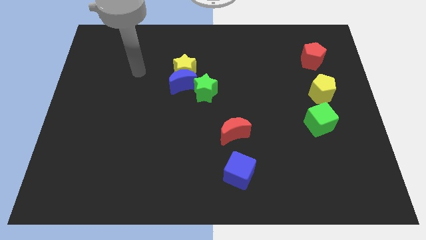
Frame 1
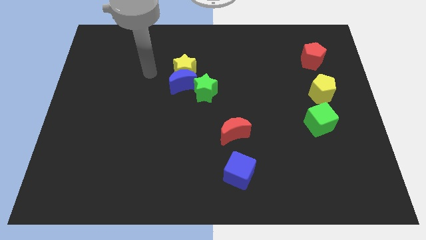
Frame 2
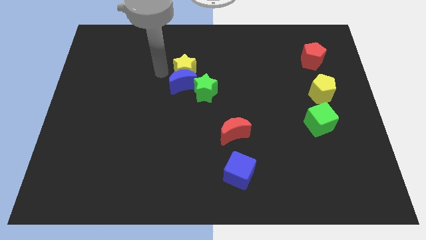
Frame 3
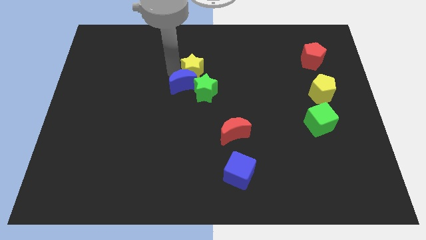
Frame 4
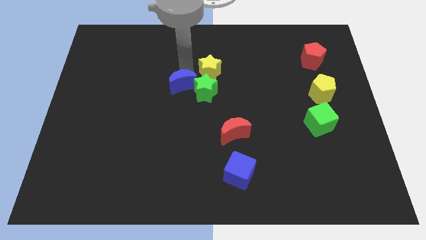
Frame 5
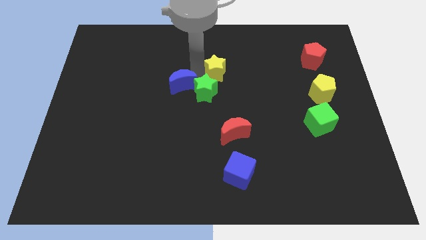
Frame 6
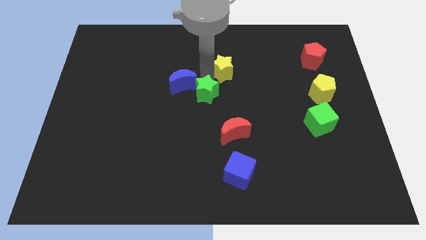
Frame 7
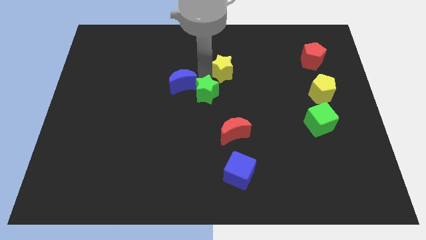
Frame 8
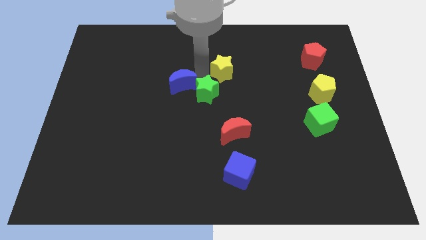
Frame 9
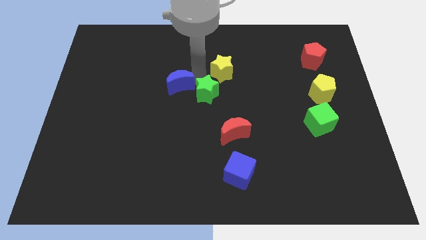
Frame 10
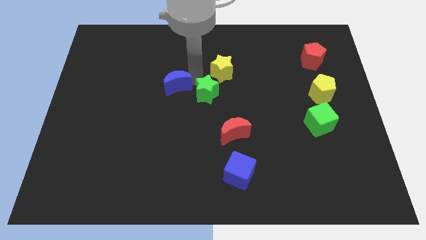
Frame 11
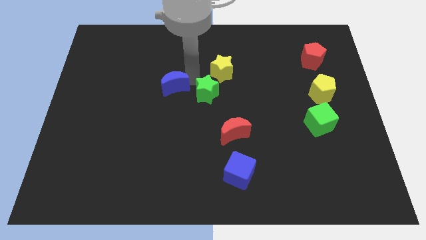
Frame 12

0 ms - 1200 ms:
move the blue moon away from the yellow star and green star

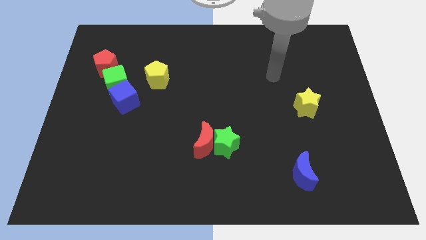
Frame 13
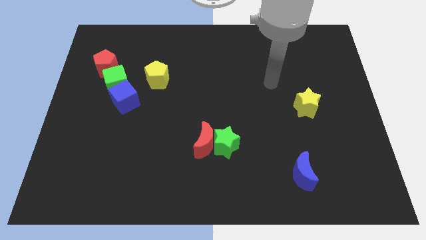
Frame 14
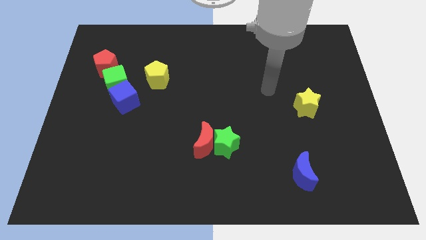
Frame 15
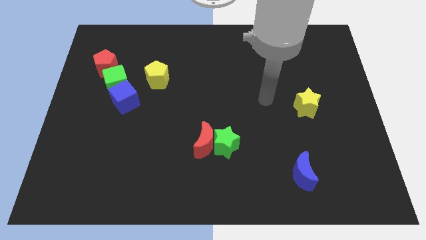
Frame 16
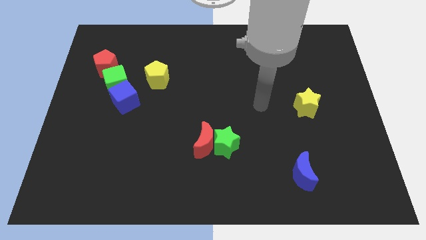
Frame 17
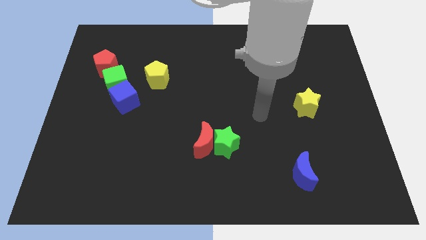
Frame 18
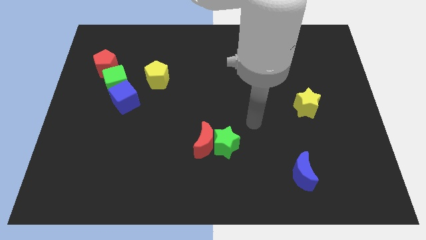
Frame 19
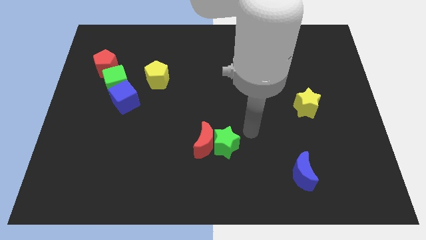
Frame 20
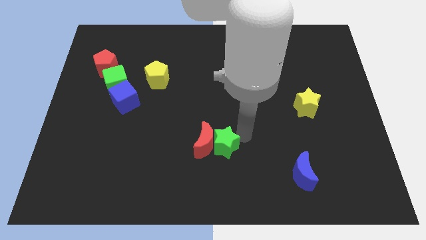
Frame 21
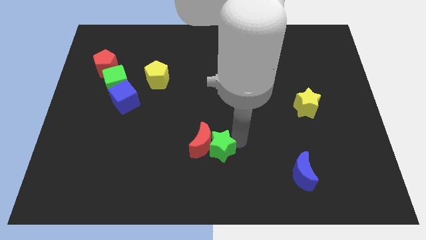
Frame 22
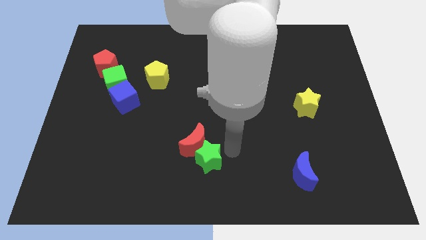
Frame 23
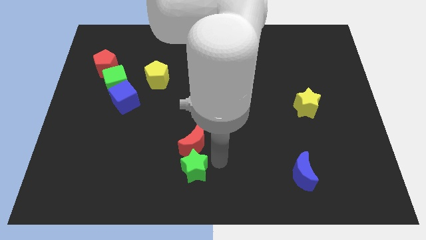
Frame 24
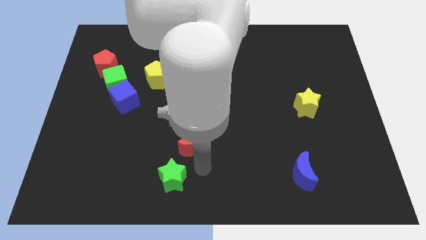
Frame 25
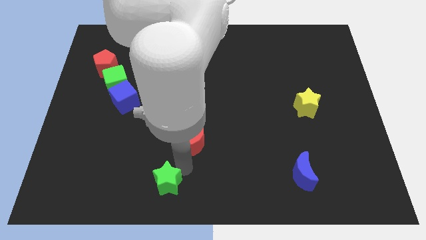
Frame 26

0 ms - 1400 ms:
move the red moon away from the green star

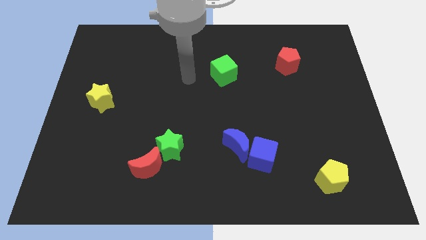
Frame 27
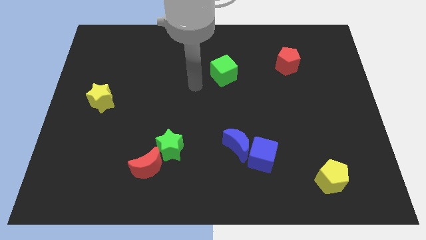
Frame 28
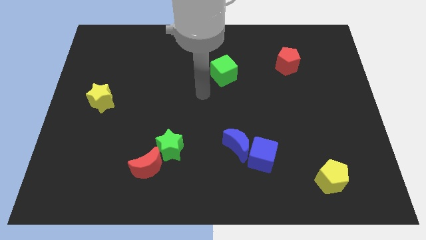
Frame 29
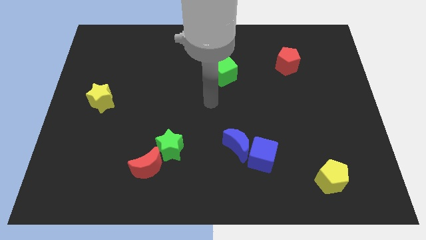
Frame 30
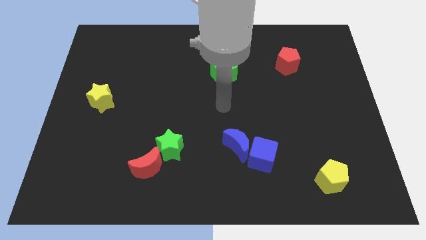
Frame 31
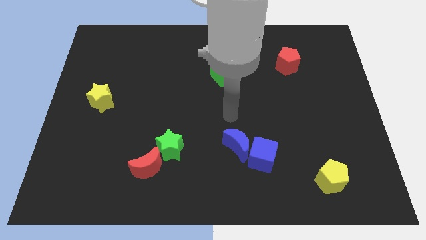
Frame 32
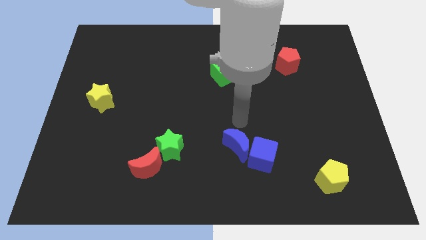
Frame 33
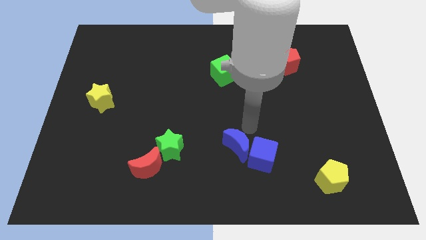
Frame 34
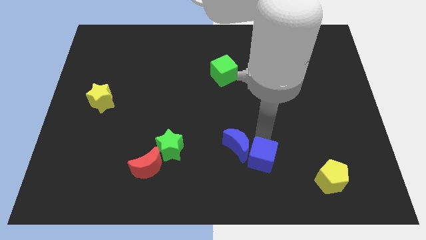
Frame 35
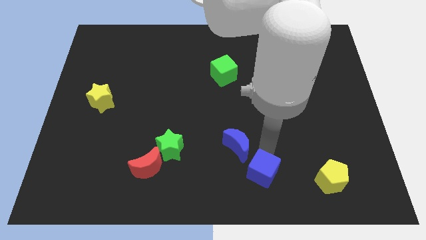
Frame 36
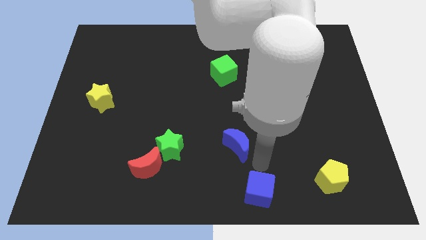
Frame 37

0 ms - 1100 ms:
move the blue moon away from the blue cube

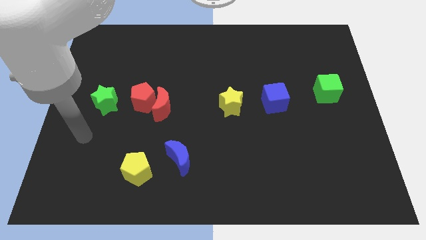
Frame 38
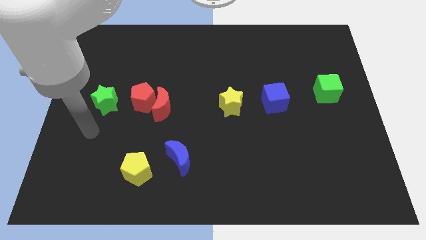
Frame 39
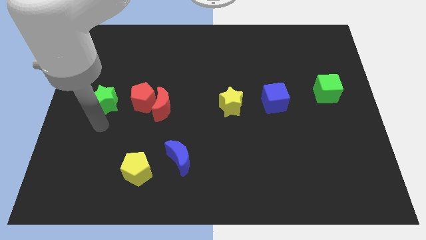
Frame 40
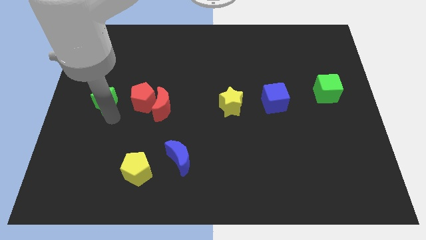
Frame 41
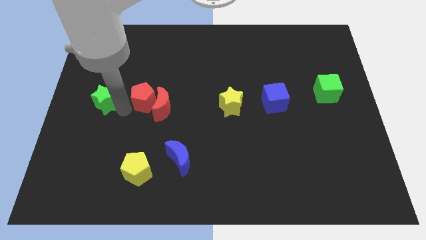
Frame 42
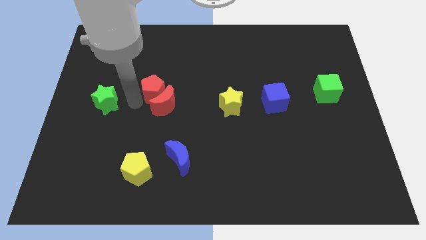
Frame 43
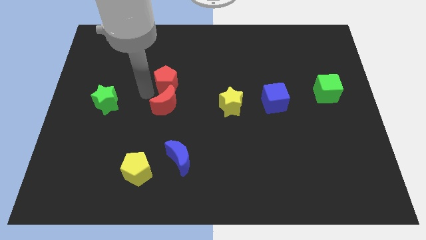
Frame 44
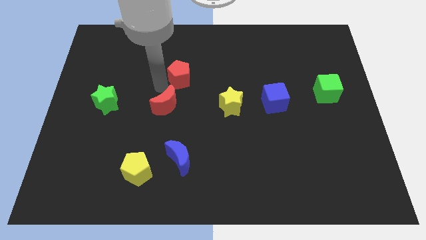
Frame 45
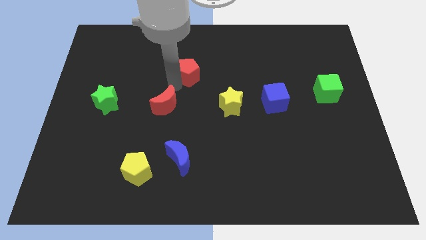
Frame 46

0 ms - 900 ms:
separate the red moon from the red pentagon

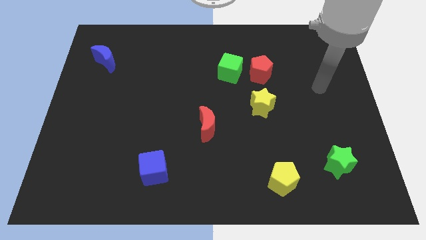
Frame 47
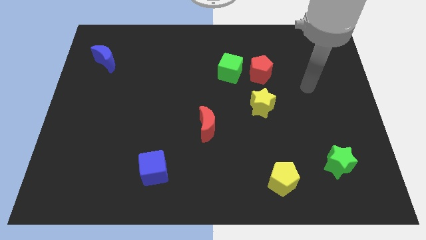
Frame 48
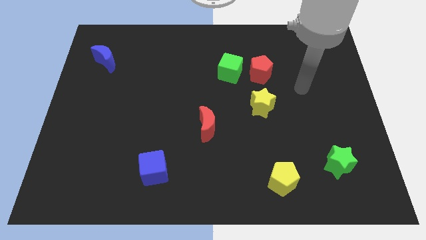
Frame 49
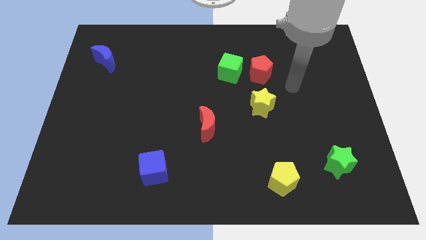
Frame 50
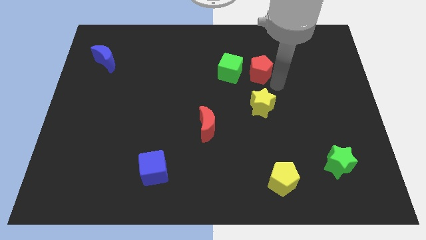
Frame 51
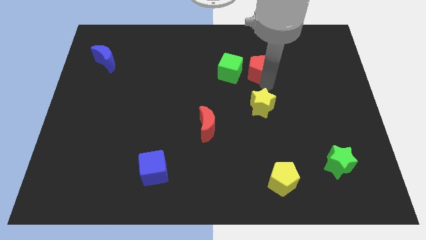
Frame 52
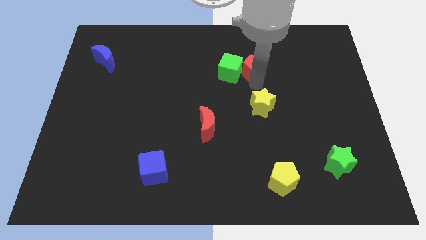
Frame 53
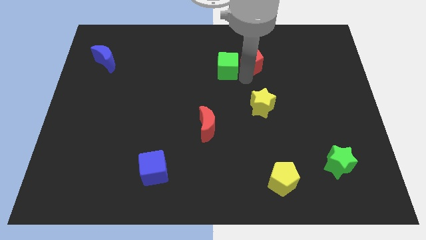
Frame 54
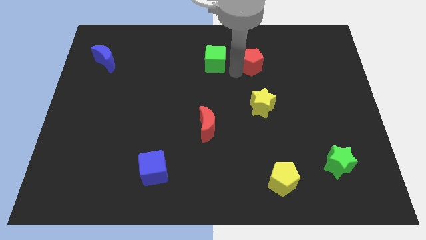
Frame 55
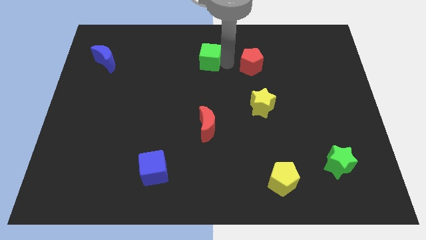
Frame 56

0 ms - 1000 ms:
separate the red pentagon from the green cube

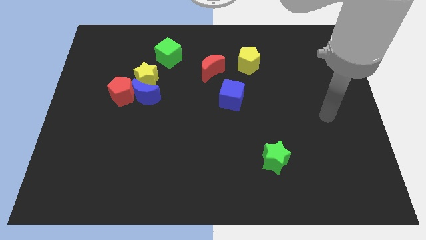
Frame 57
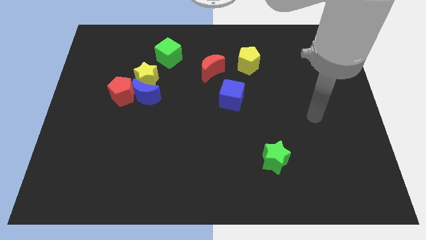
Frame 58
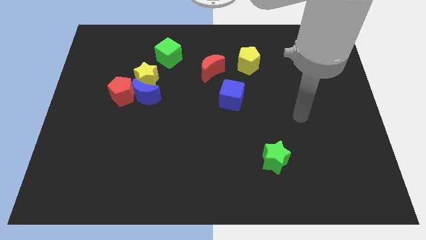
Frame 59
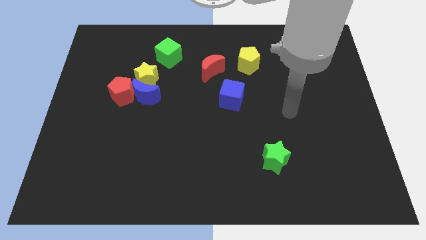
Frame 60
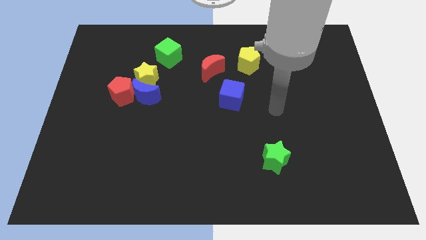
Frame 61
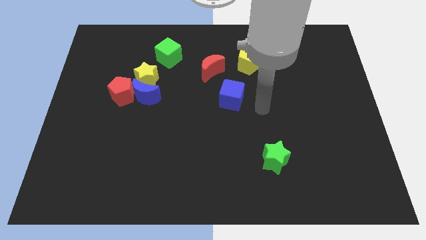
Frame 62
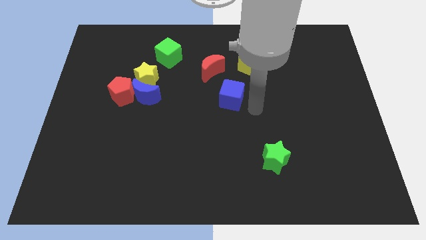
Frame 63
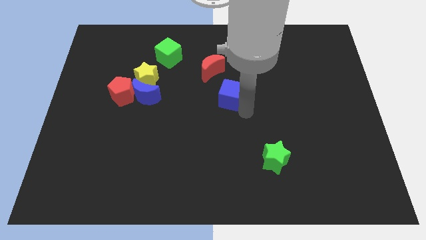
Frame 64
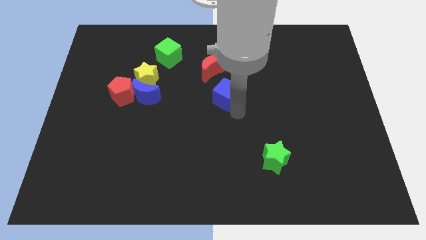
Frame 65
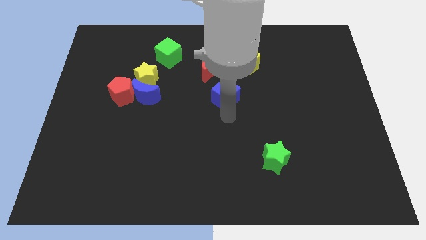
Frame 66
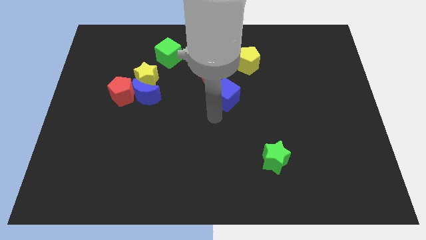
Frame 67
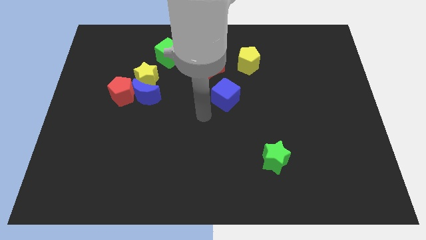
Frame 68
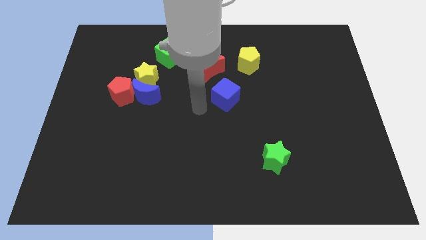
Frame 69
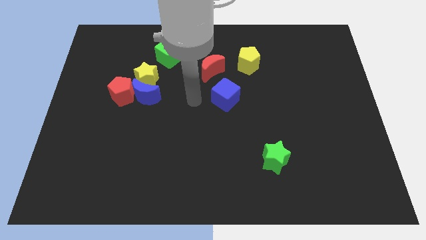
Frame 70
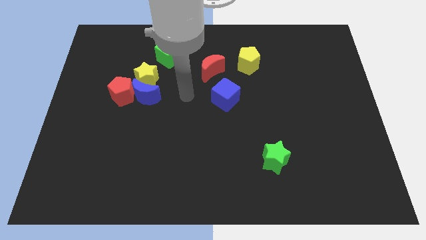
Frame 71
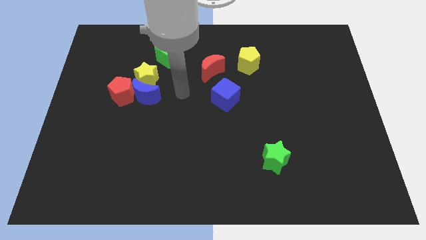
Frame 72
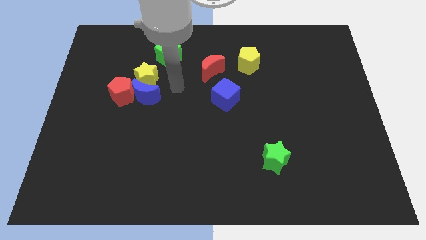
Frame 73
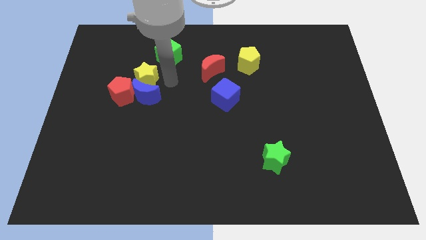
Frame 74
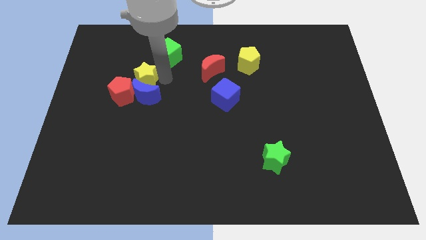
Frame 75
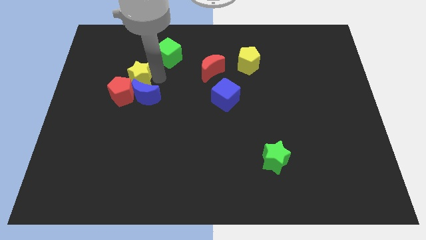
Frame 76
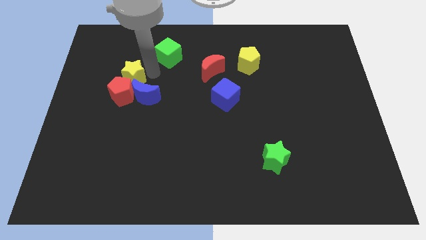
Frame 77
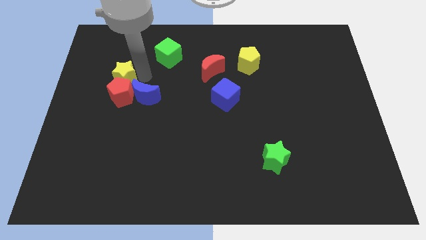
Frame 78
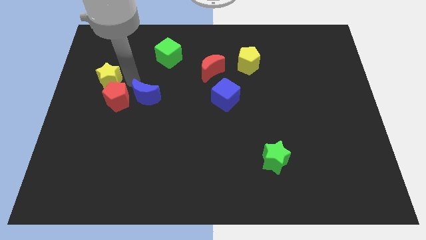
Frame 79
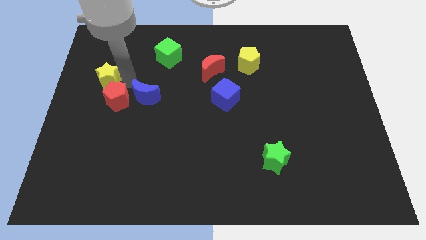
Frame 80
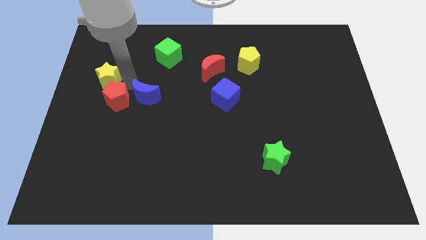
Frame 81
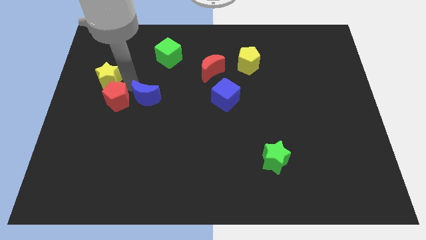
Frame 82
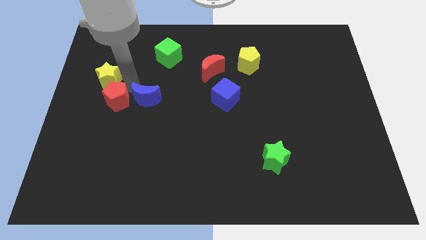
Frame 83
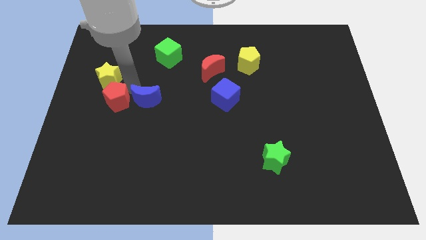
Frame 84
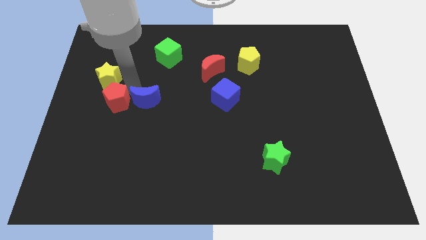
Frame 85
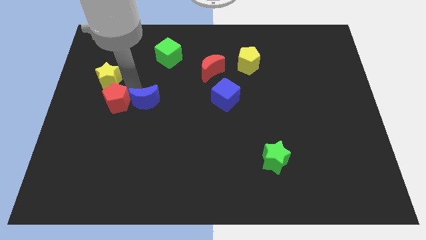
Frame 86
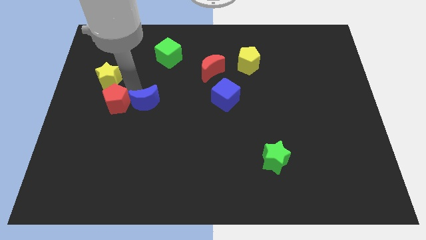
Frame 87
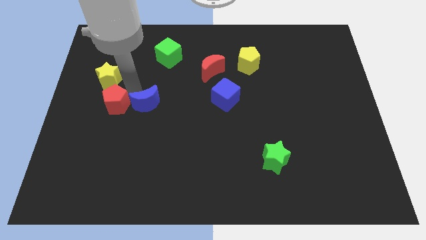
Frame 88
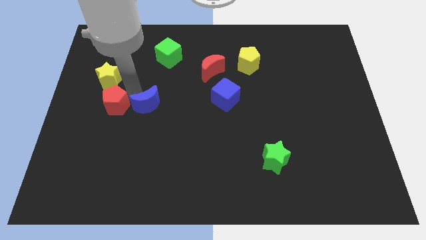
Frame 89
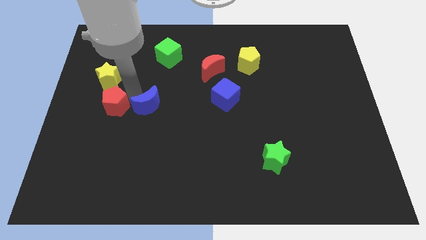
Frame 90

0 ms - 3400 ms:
pull the blue moon apart from the yellow star and red pentagon

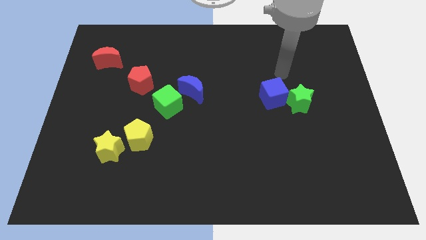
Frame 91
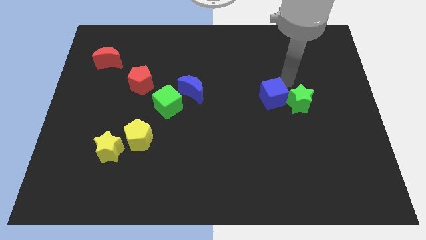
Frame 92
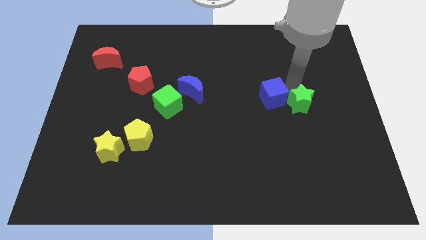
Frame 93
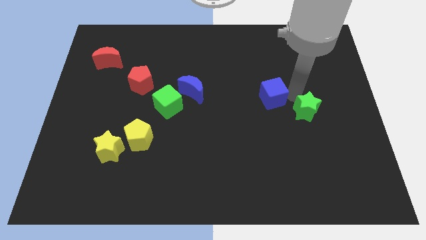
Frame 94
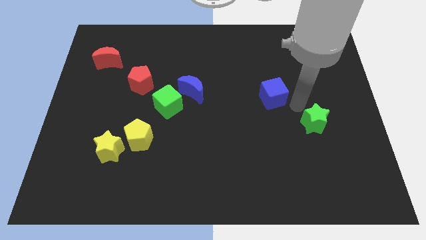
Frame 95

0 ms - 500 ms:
move the blue cube away from the green star

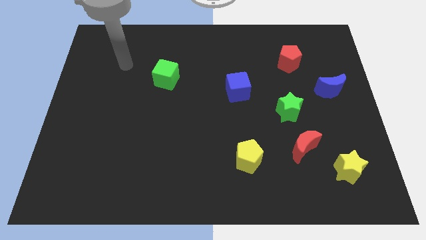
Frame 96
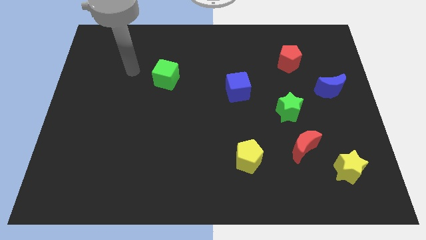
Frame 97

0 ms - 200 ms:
separate the green star from the red moon
